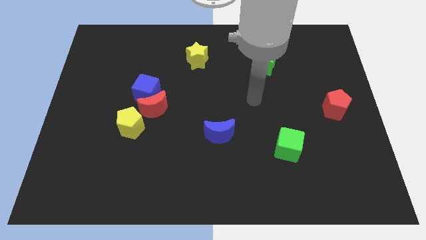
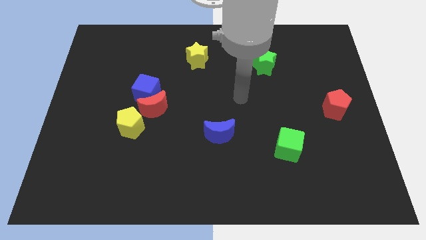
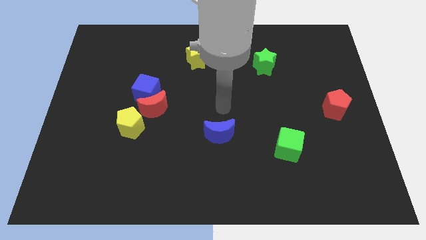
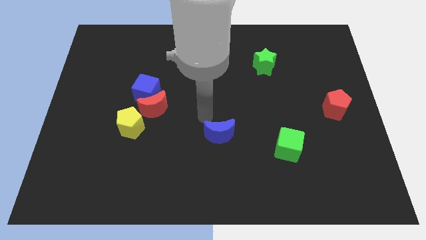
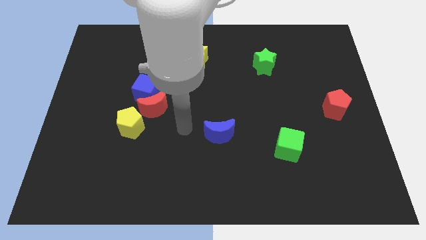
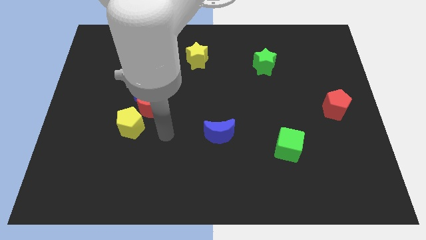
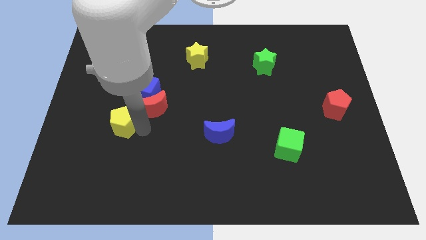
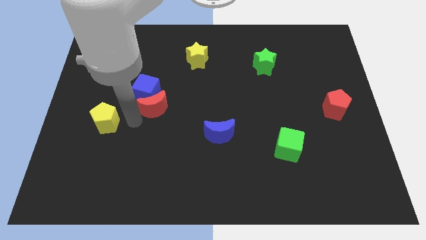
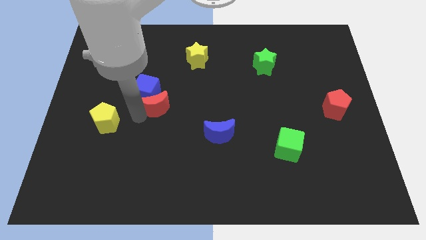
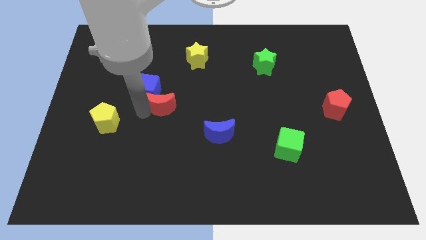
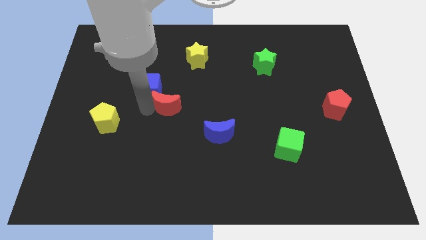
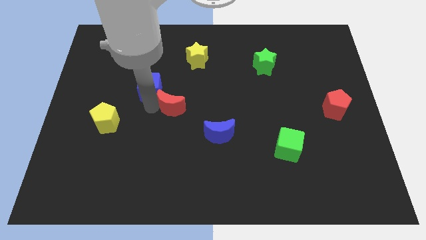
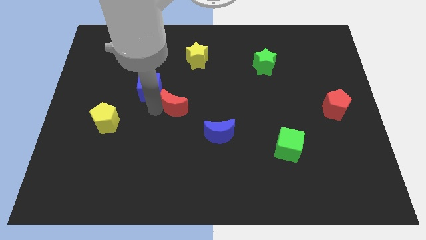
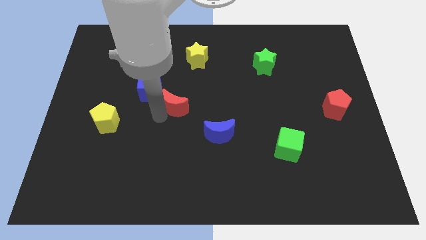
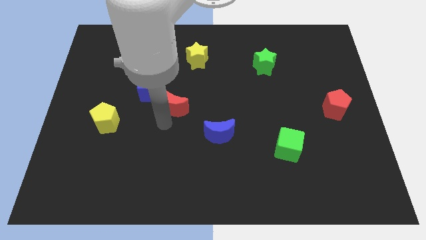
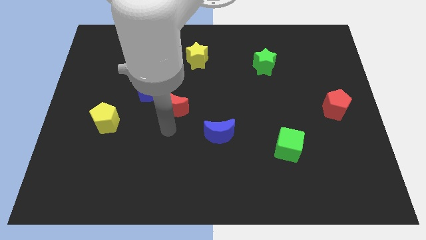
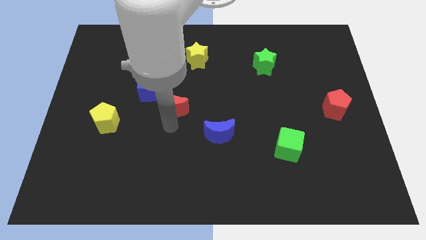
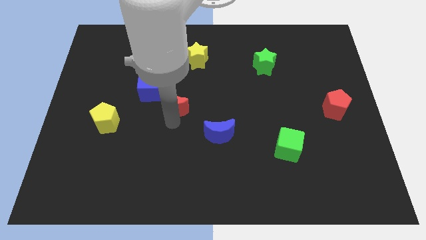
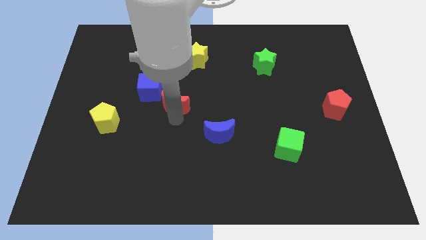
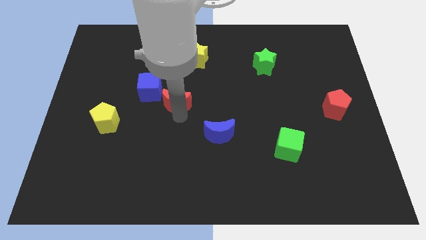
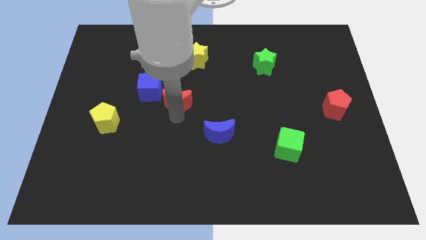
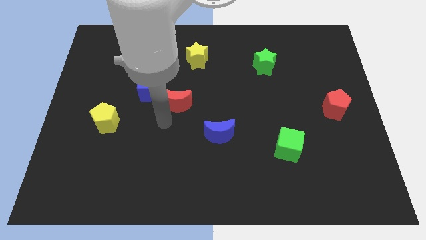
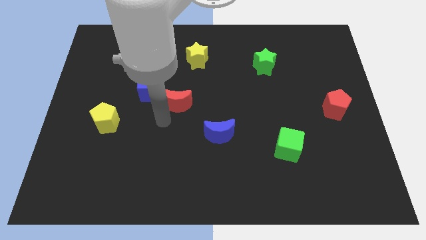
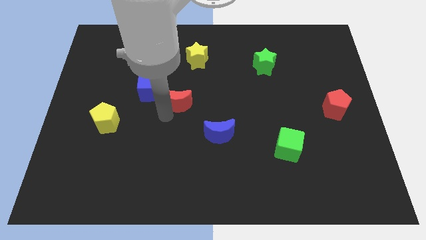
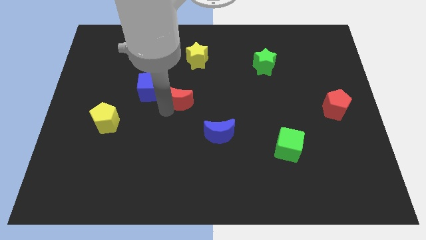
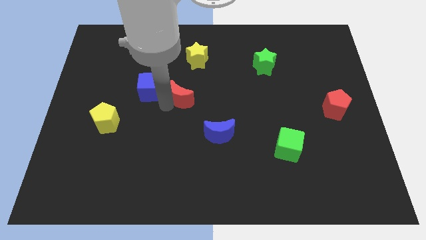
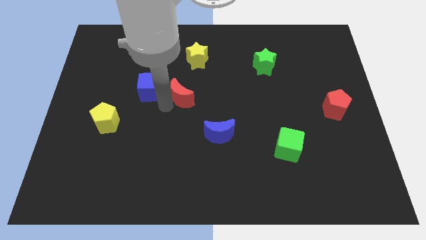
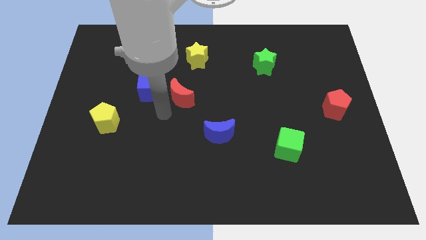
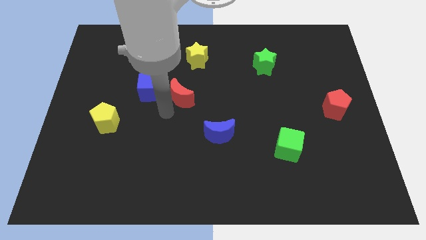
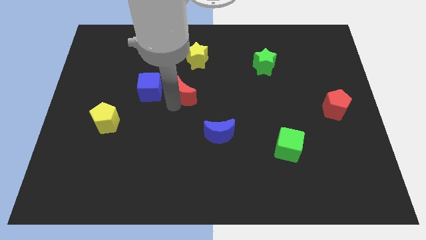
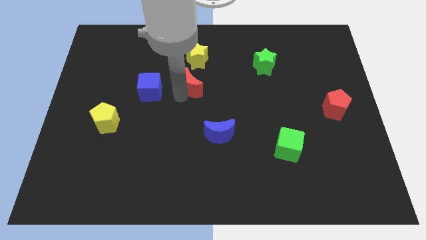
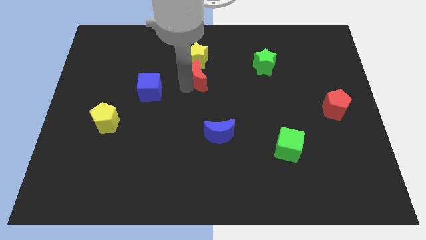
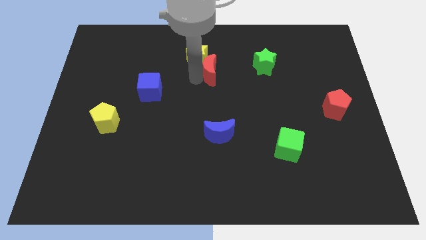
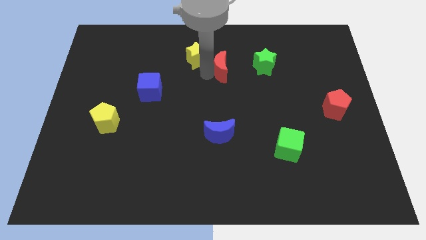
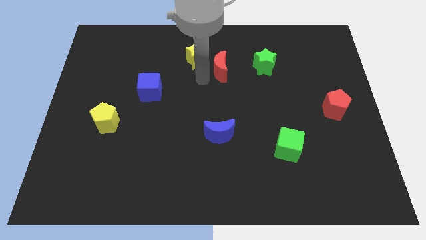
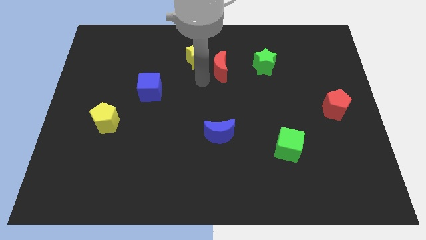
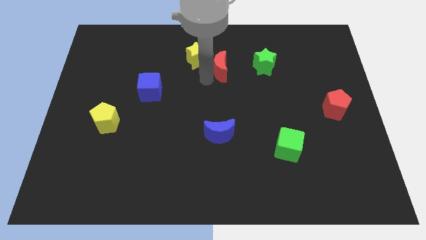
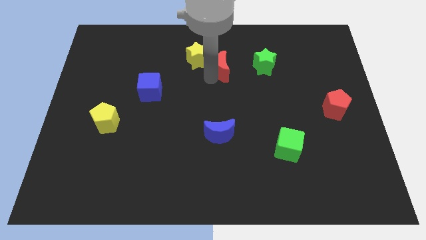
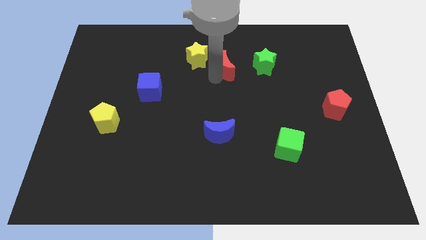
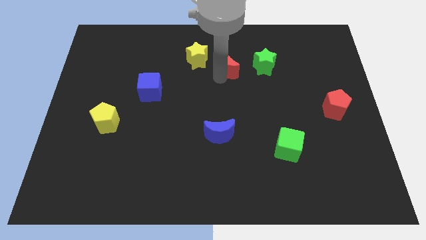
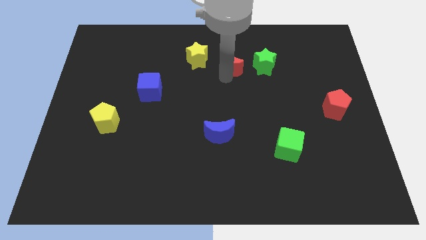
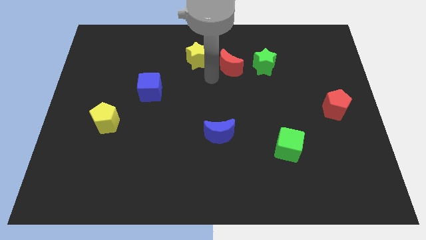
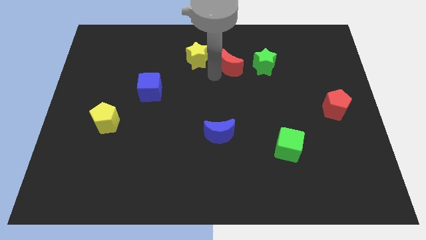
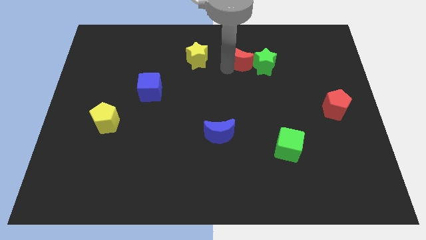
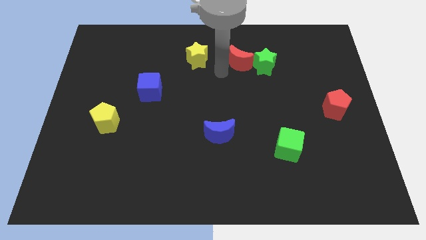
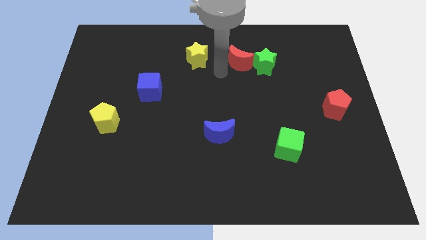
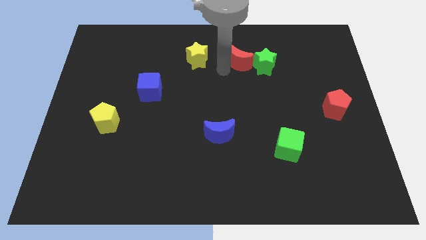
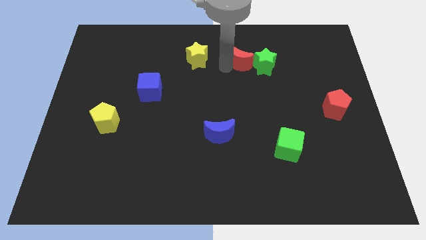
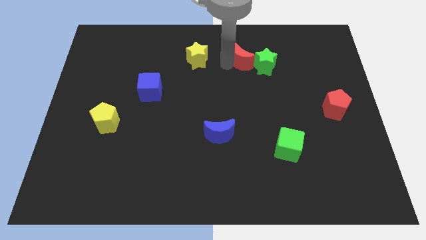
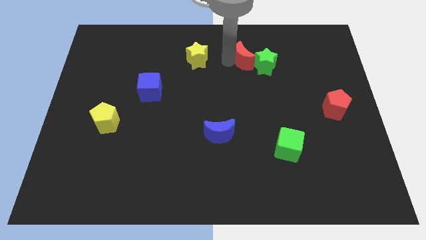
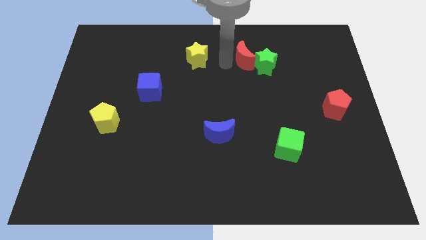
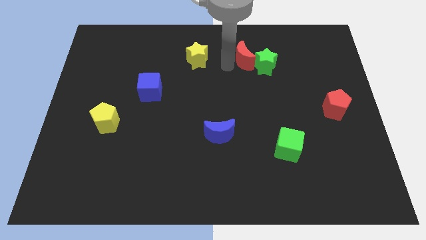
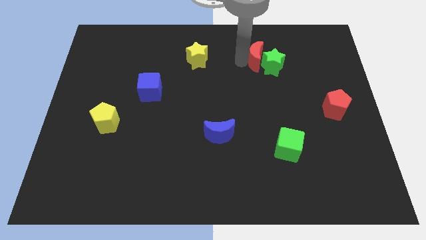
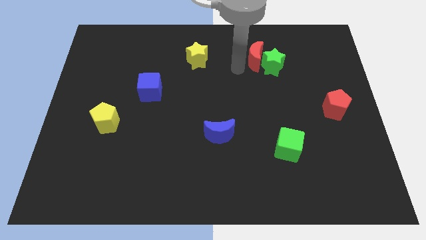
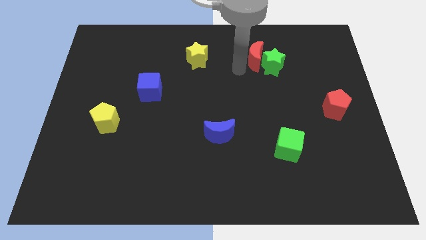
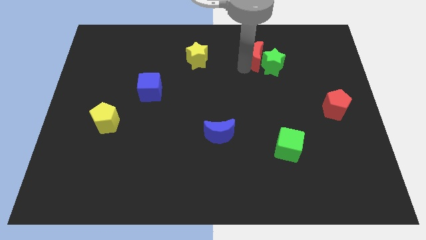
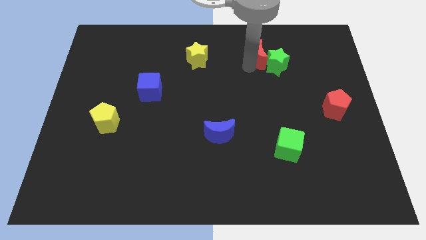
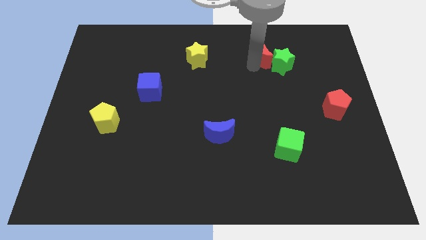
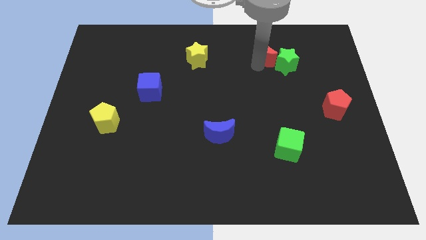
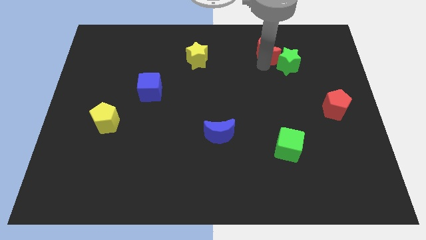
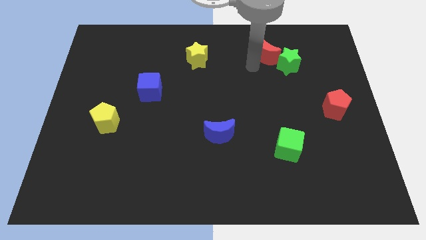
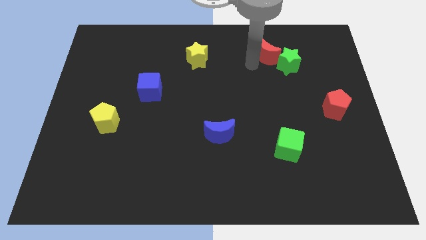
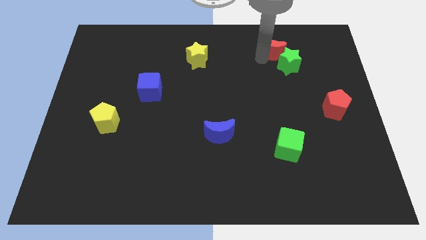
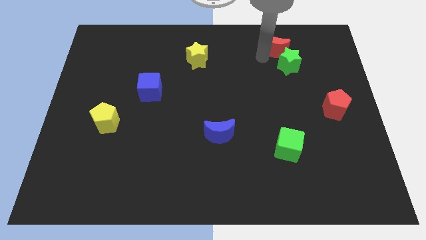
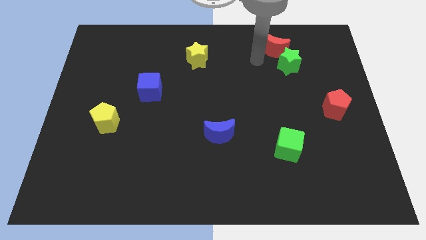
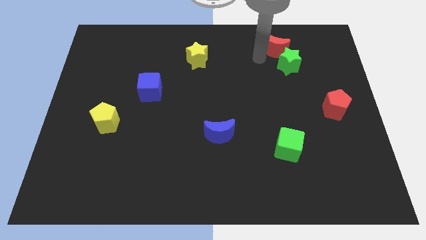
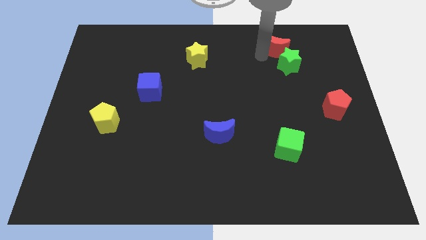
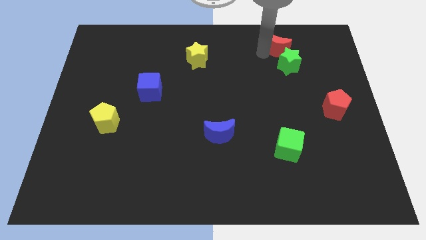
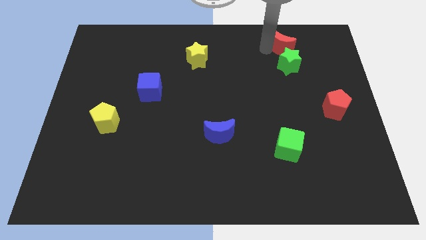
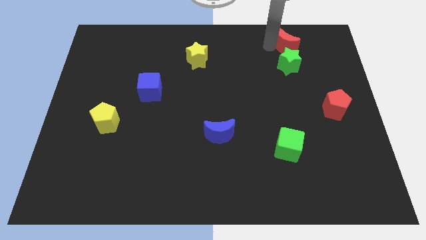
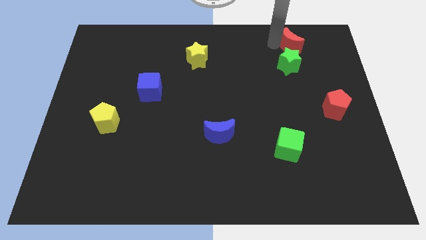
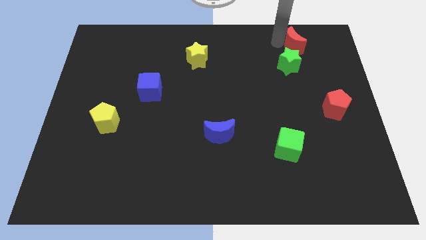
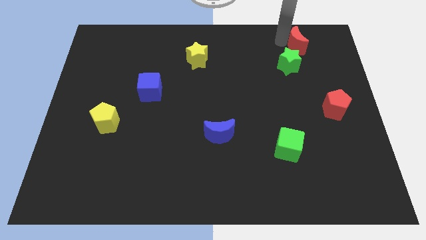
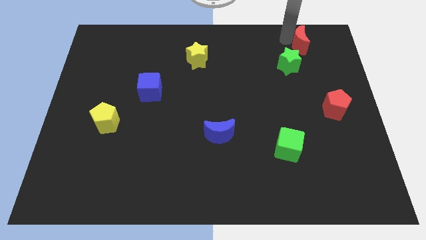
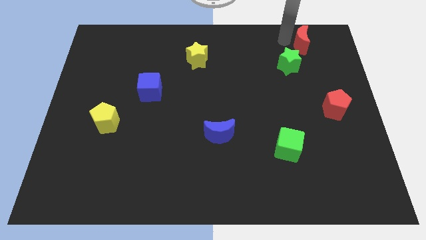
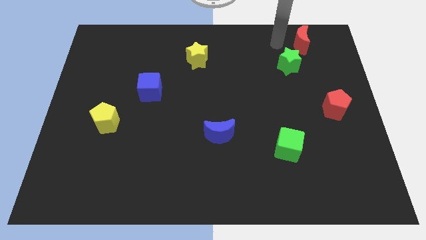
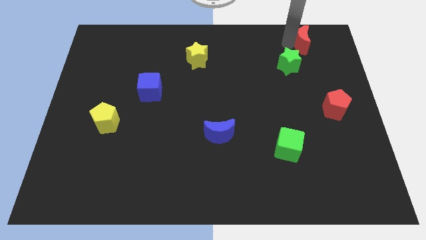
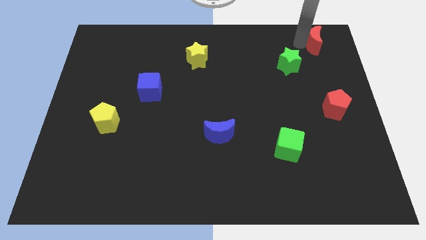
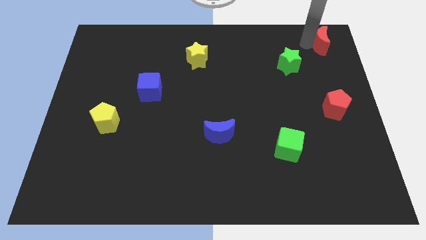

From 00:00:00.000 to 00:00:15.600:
push the red moon to the top right corner
